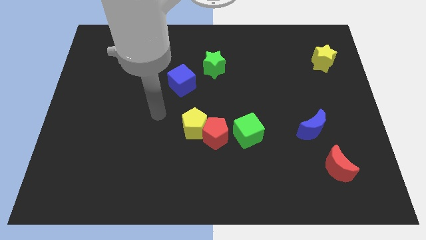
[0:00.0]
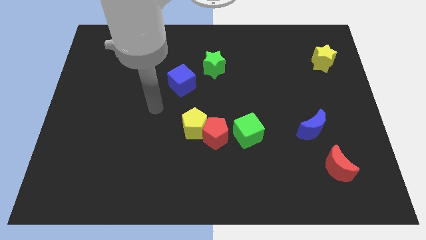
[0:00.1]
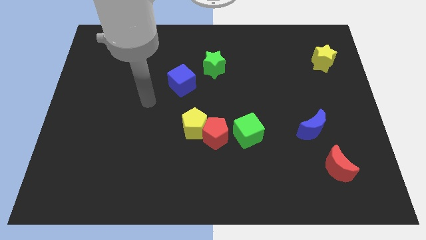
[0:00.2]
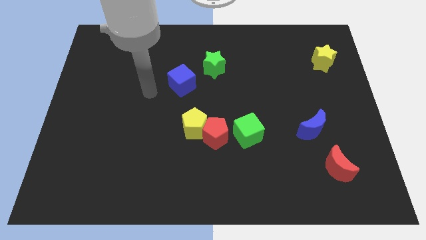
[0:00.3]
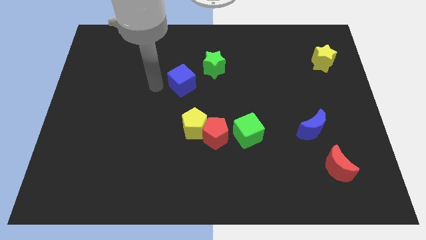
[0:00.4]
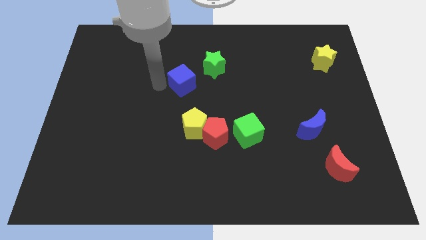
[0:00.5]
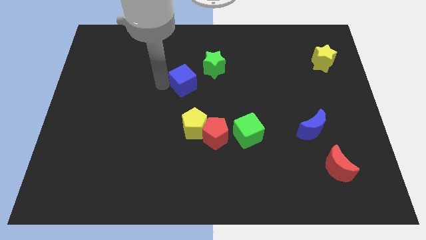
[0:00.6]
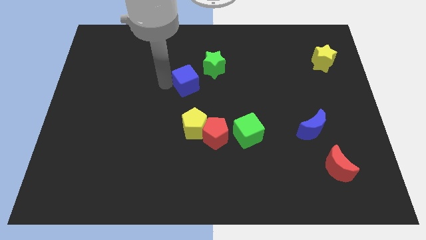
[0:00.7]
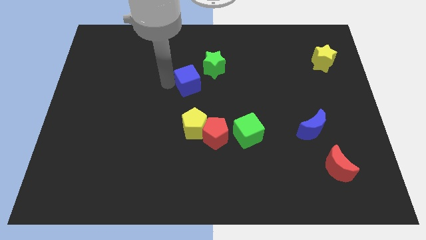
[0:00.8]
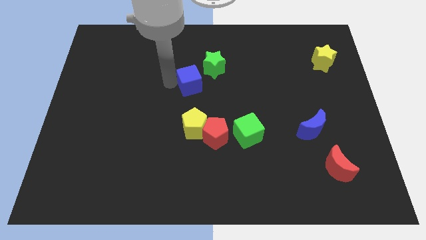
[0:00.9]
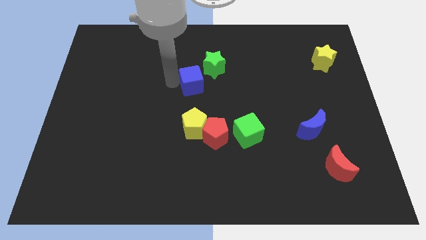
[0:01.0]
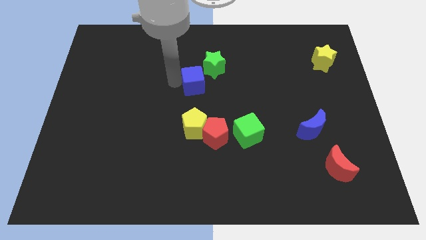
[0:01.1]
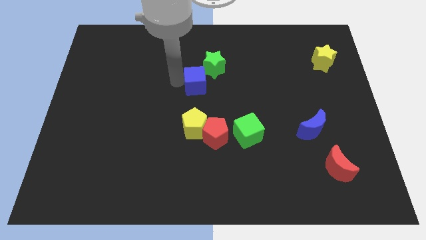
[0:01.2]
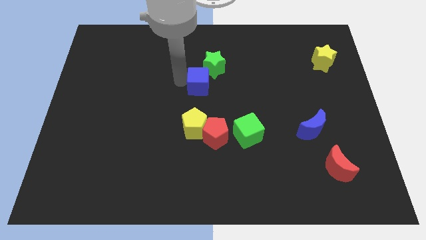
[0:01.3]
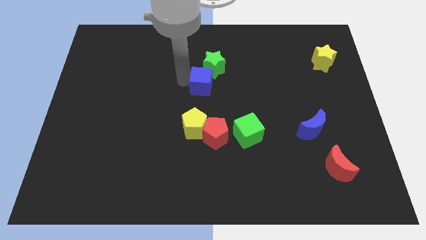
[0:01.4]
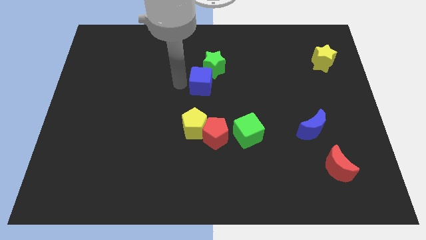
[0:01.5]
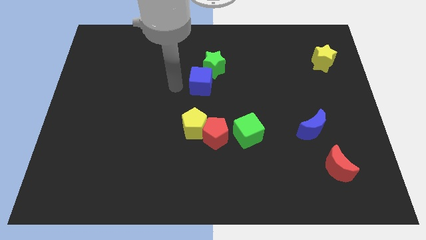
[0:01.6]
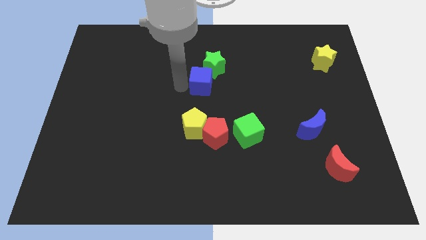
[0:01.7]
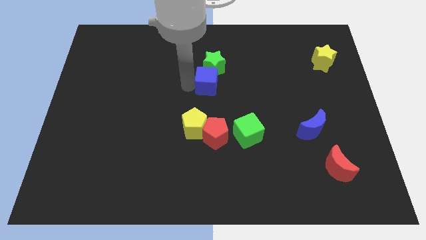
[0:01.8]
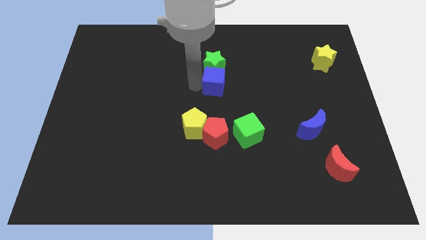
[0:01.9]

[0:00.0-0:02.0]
move the blue cube right a bit

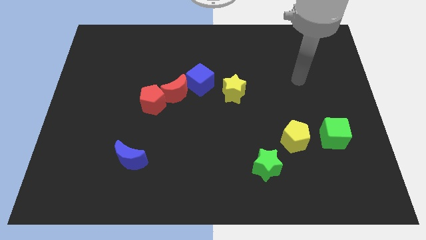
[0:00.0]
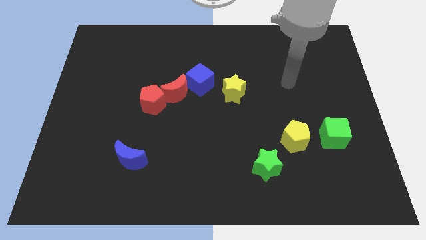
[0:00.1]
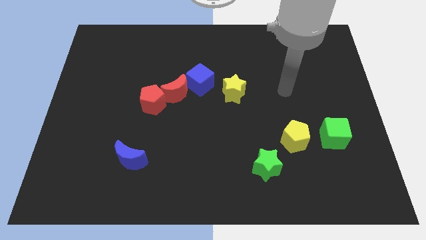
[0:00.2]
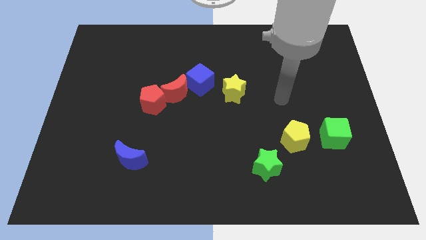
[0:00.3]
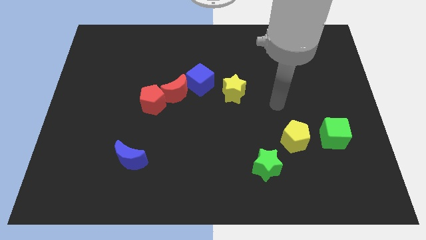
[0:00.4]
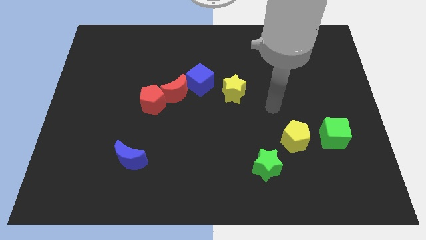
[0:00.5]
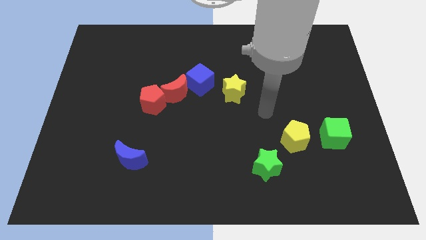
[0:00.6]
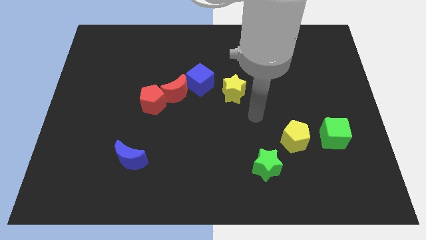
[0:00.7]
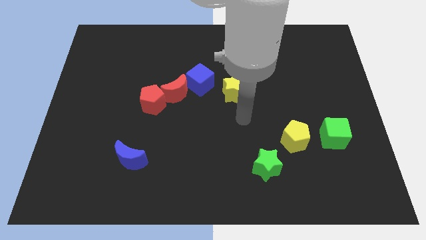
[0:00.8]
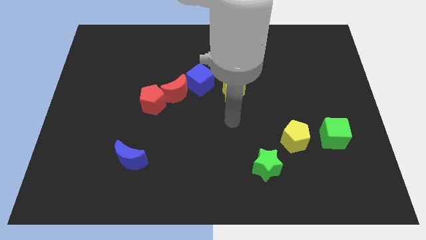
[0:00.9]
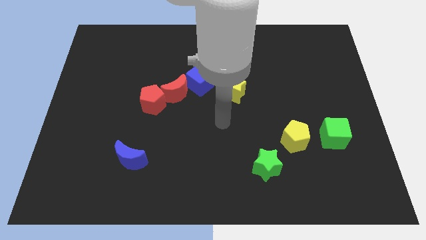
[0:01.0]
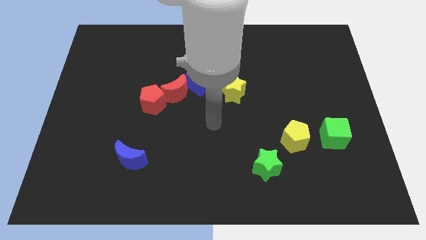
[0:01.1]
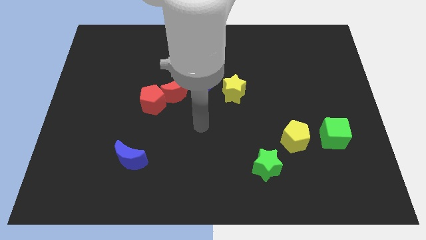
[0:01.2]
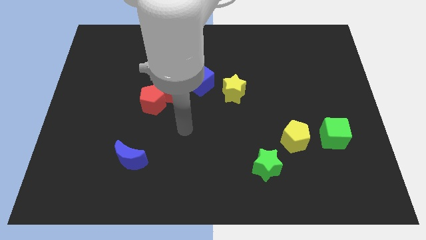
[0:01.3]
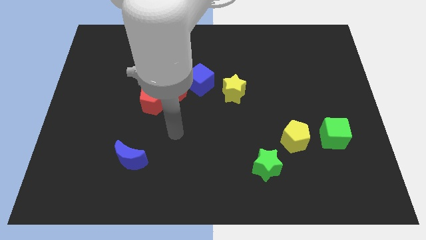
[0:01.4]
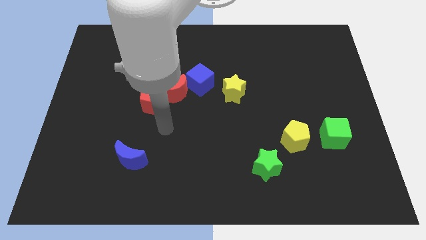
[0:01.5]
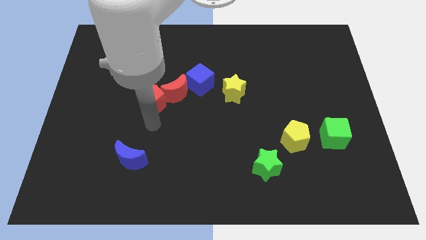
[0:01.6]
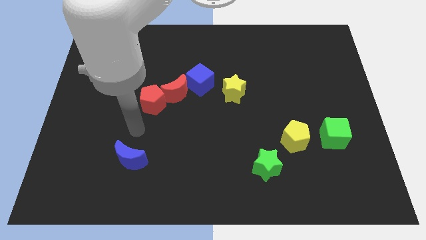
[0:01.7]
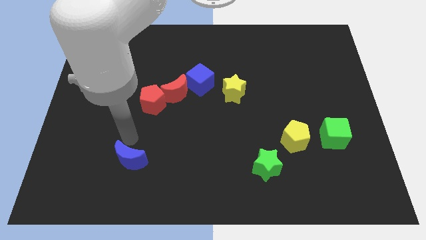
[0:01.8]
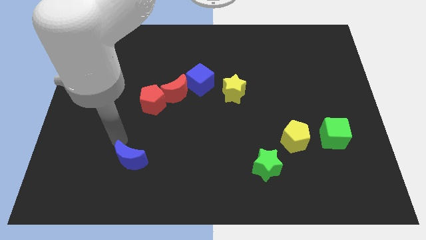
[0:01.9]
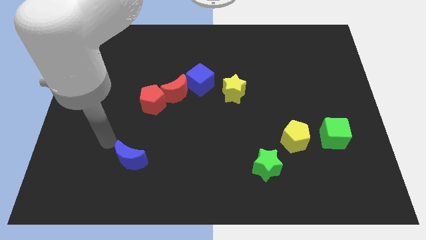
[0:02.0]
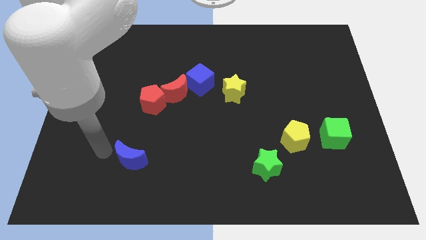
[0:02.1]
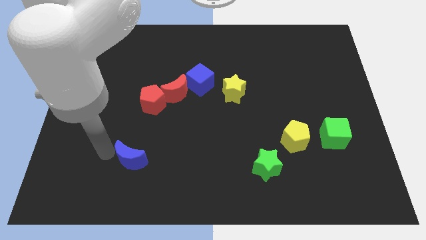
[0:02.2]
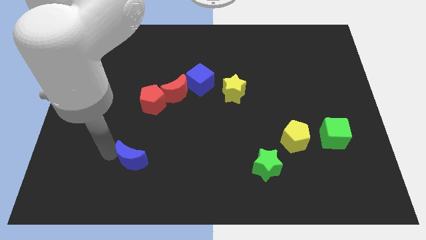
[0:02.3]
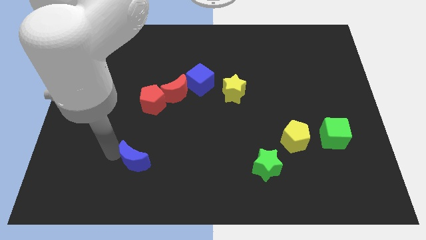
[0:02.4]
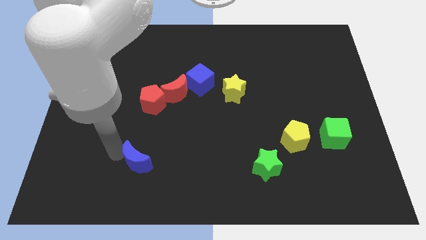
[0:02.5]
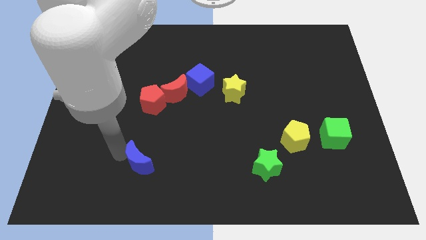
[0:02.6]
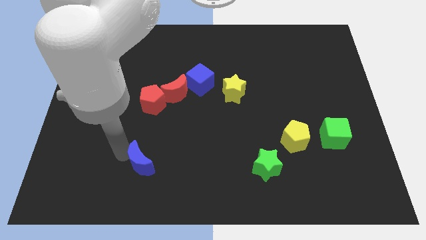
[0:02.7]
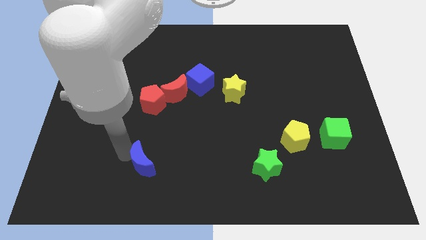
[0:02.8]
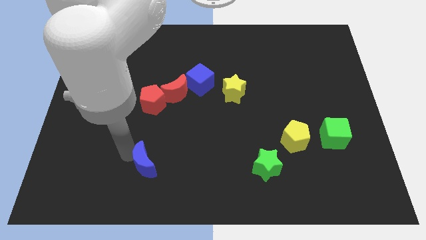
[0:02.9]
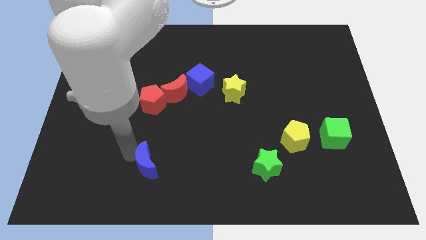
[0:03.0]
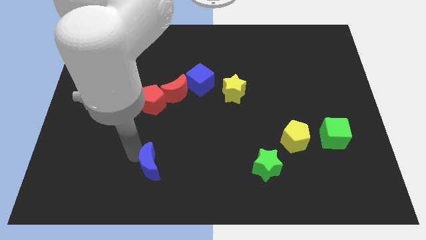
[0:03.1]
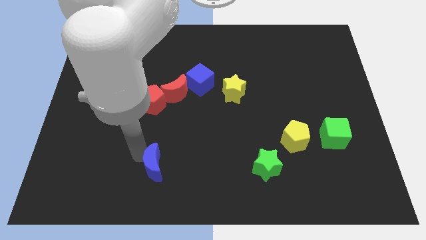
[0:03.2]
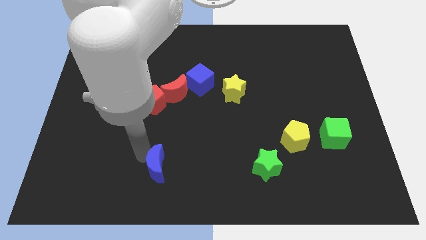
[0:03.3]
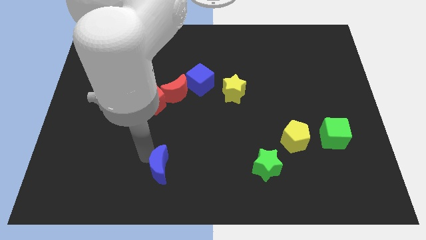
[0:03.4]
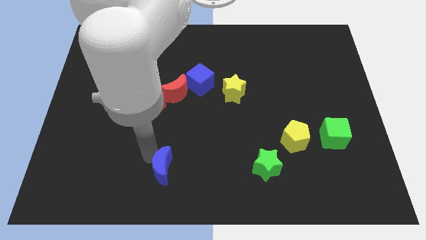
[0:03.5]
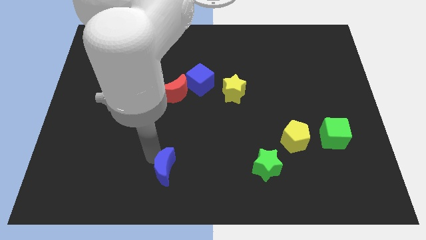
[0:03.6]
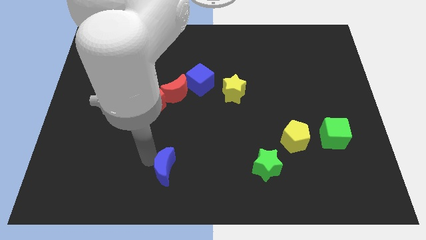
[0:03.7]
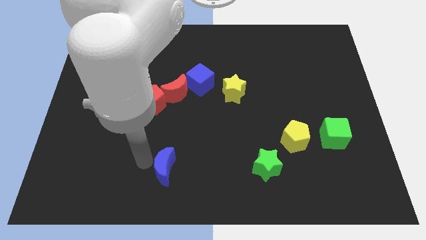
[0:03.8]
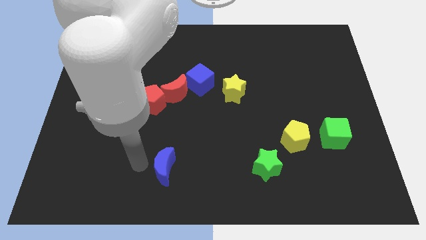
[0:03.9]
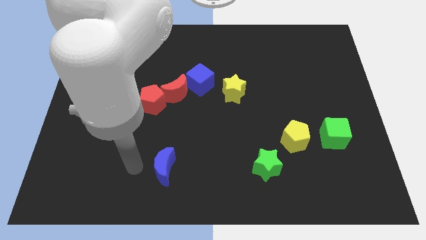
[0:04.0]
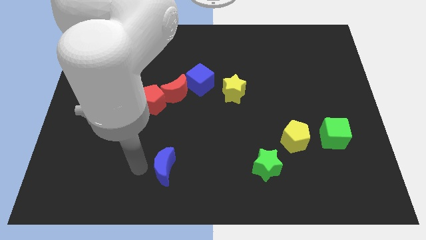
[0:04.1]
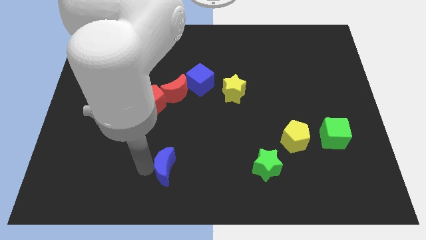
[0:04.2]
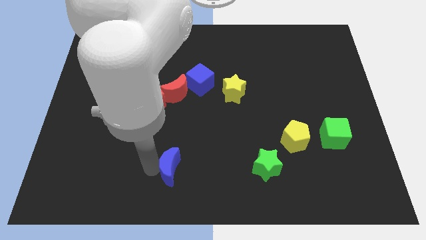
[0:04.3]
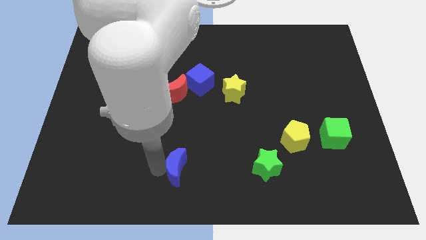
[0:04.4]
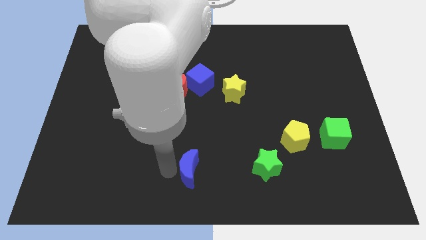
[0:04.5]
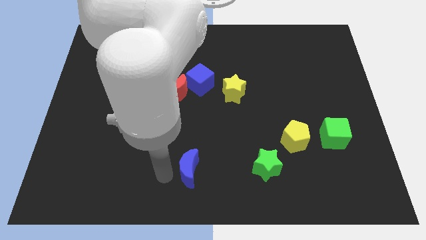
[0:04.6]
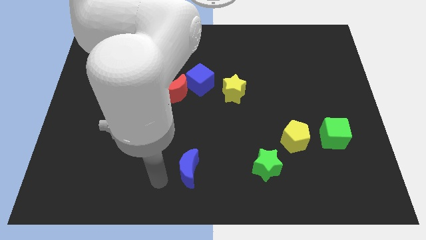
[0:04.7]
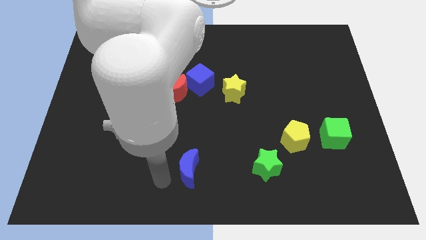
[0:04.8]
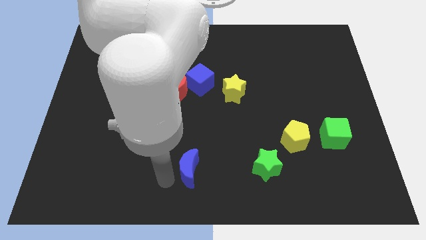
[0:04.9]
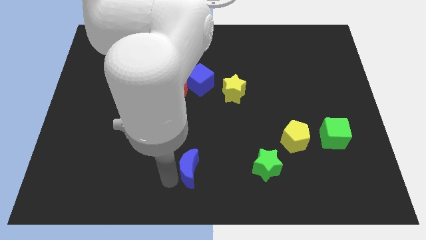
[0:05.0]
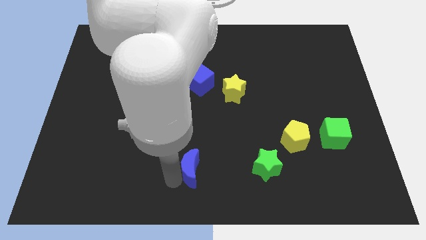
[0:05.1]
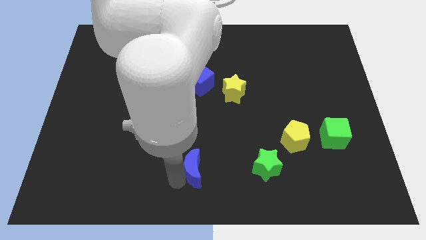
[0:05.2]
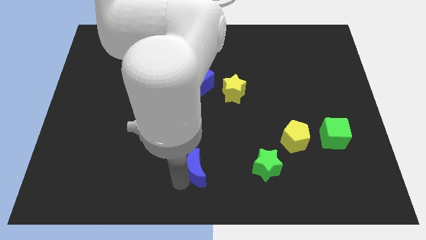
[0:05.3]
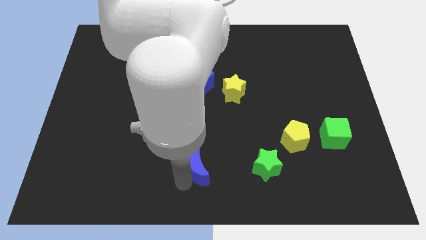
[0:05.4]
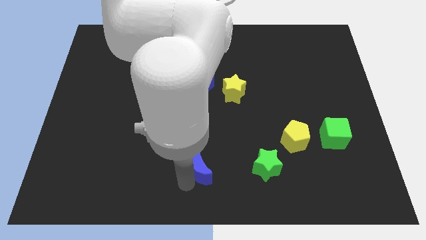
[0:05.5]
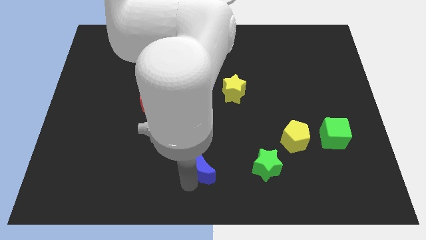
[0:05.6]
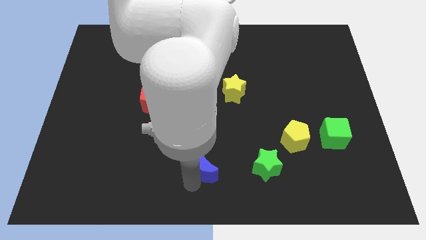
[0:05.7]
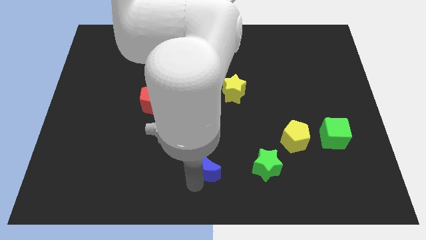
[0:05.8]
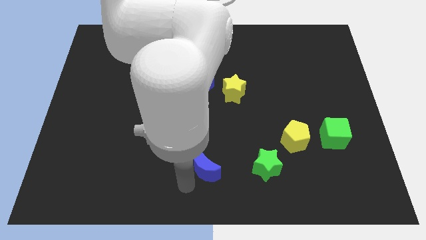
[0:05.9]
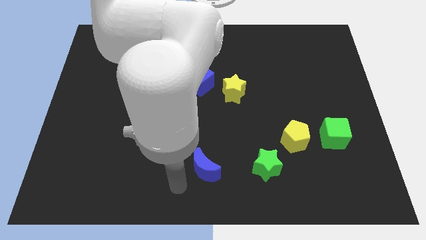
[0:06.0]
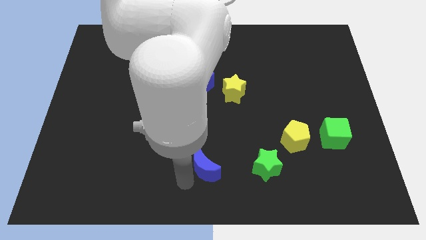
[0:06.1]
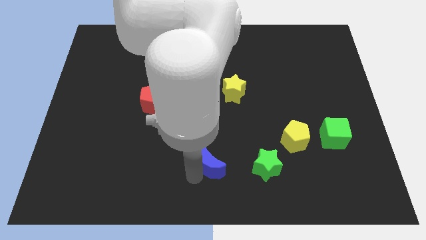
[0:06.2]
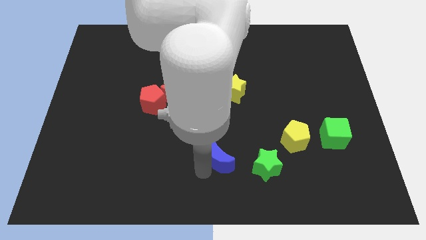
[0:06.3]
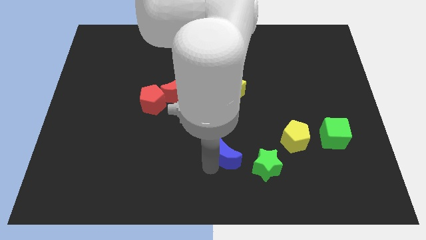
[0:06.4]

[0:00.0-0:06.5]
push the blue moon to the right
